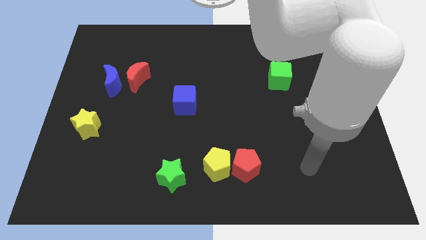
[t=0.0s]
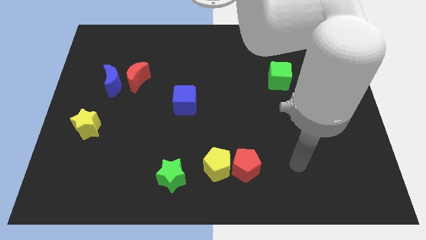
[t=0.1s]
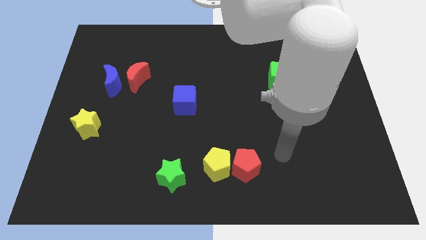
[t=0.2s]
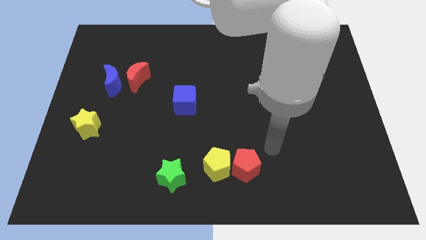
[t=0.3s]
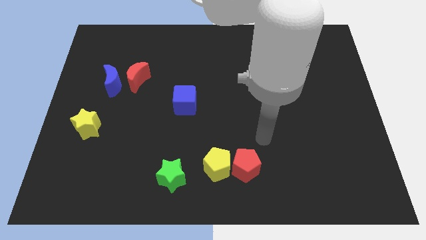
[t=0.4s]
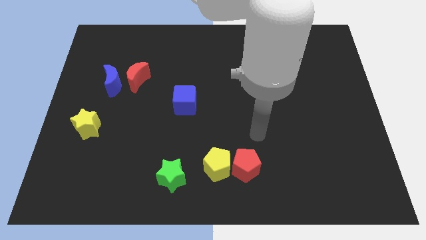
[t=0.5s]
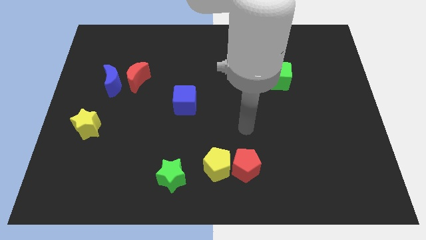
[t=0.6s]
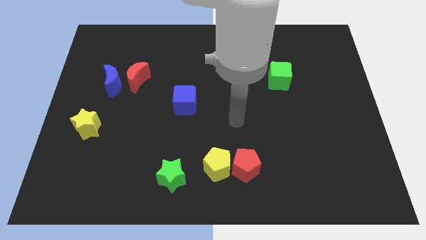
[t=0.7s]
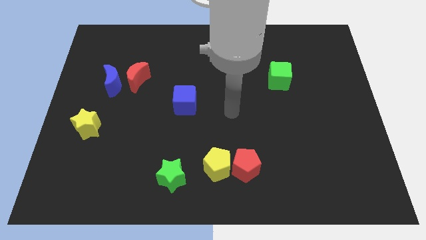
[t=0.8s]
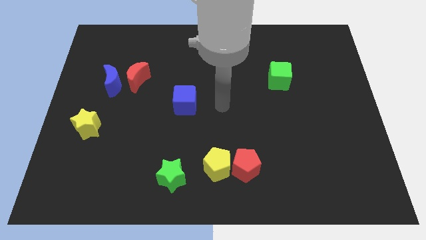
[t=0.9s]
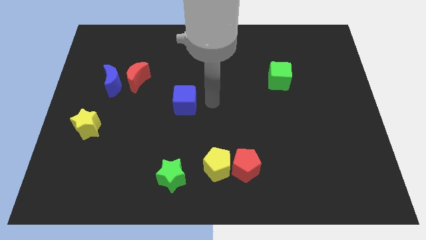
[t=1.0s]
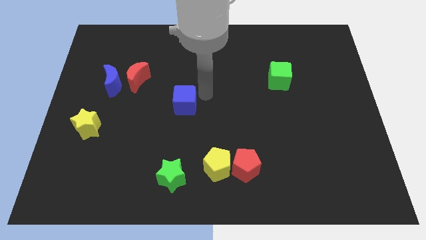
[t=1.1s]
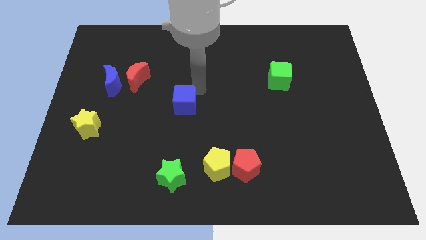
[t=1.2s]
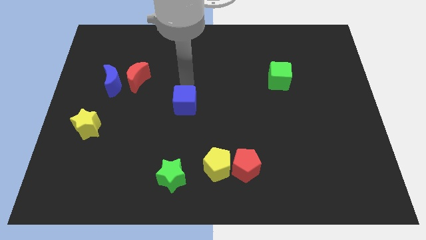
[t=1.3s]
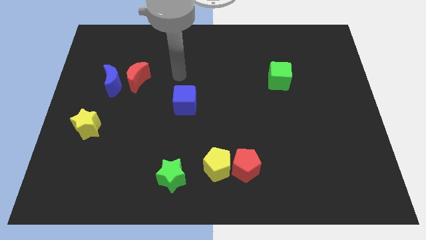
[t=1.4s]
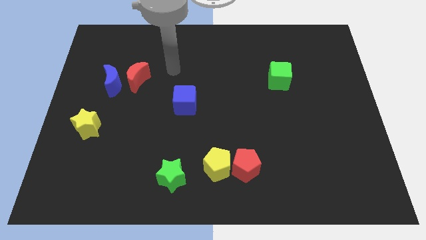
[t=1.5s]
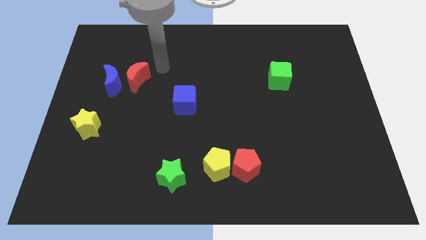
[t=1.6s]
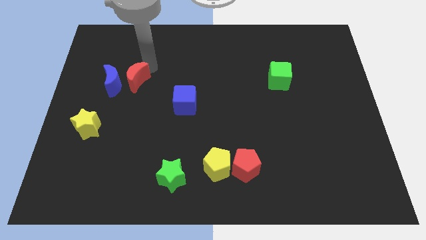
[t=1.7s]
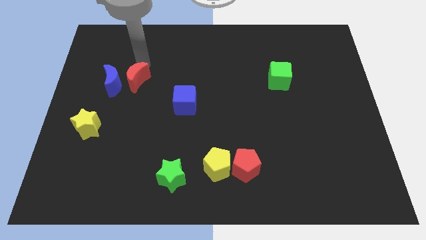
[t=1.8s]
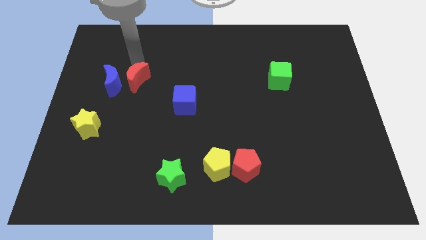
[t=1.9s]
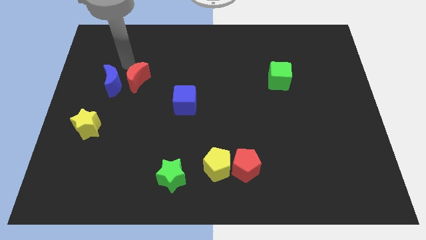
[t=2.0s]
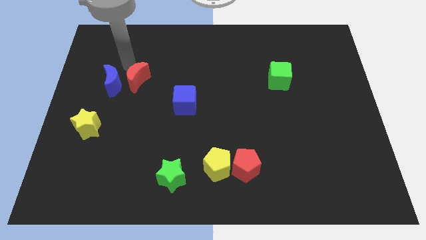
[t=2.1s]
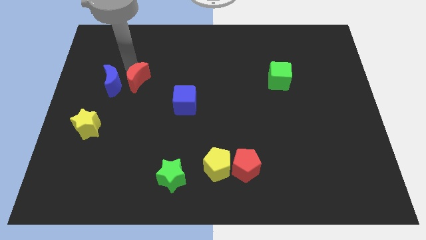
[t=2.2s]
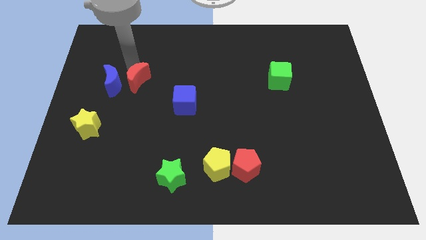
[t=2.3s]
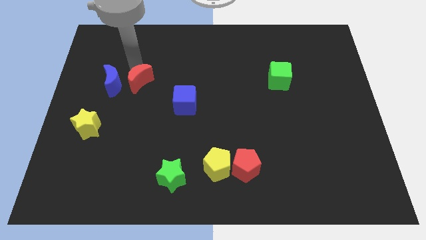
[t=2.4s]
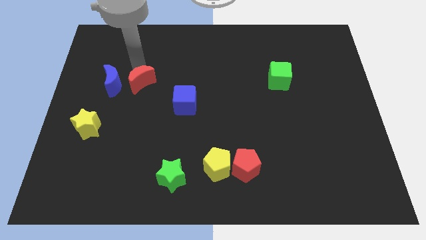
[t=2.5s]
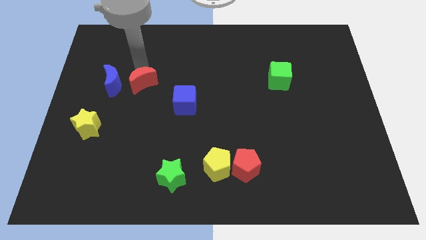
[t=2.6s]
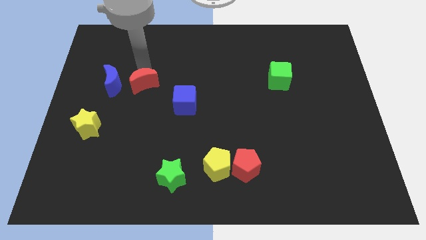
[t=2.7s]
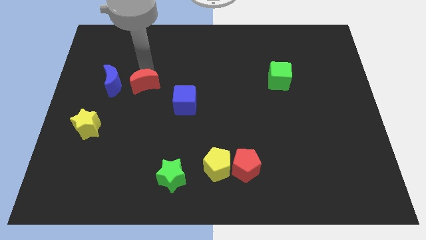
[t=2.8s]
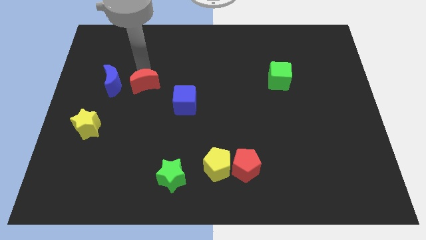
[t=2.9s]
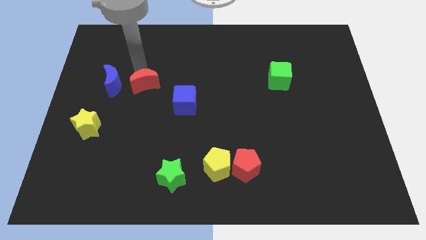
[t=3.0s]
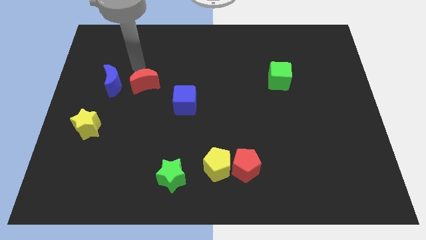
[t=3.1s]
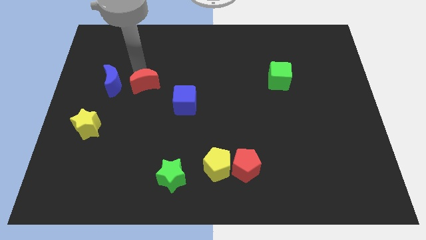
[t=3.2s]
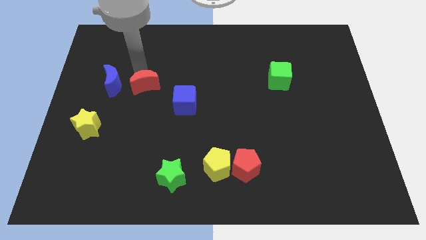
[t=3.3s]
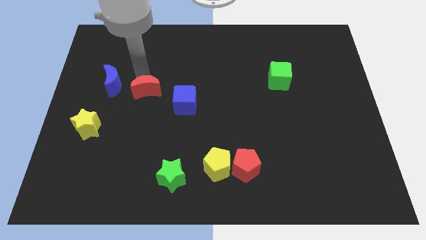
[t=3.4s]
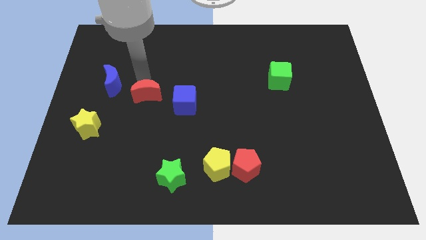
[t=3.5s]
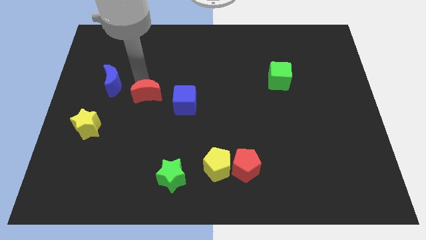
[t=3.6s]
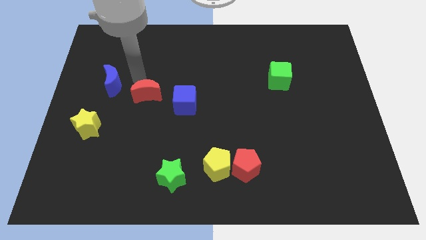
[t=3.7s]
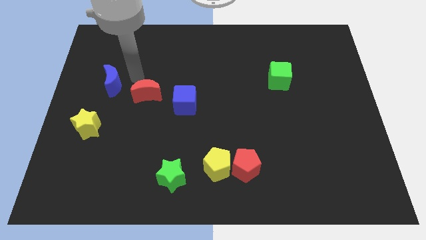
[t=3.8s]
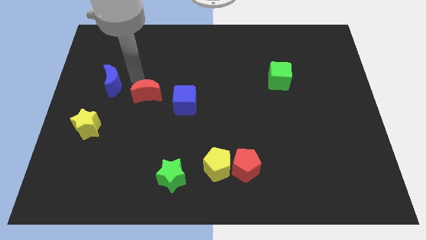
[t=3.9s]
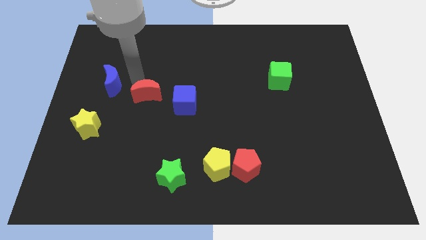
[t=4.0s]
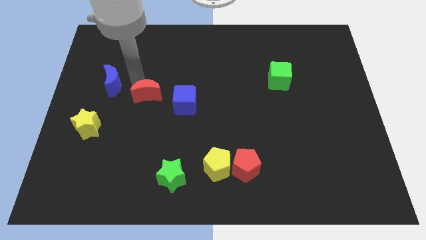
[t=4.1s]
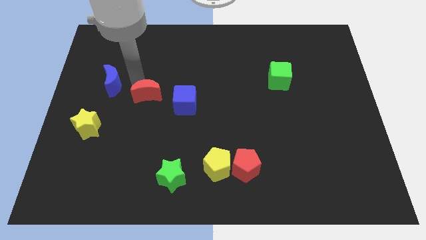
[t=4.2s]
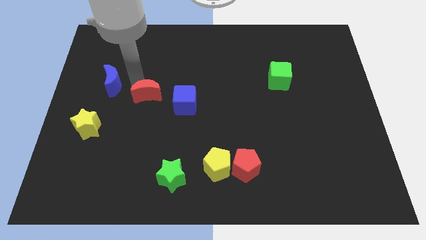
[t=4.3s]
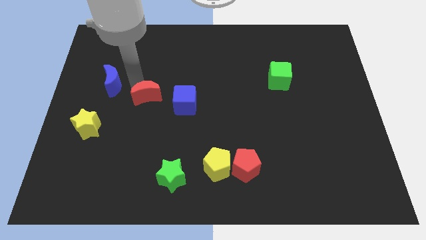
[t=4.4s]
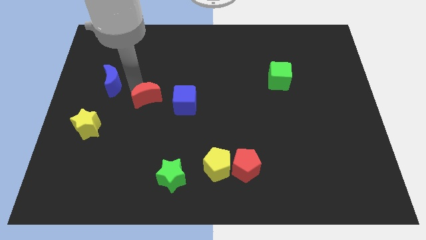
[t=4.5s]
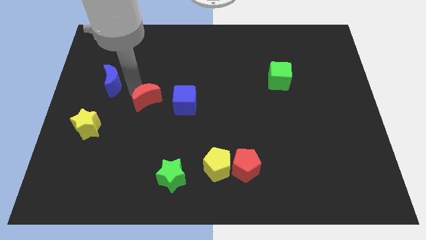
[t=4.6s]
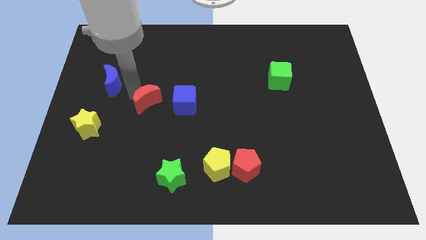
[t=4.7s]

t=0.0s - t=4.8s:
move the red moon a bit down and then to the right

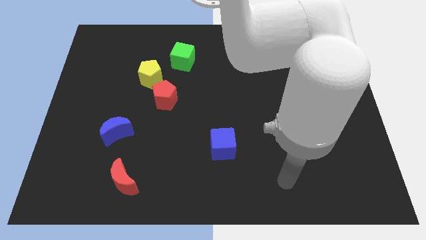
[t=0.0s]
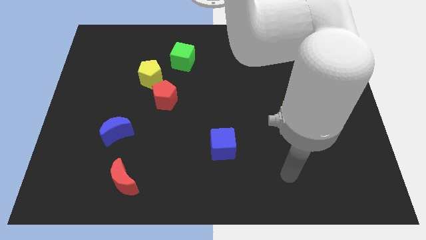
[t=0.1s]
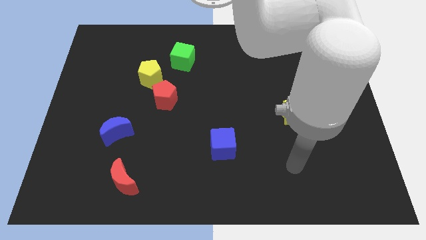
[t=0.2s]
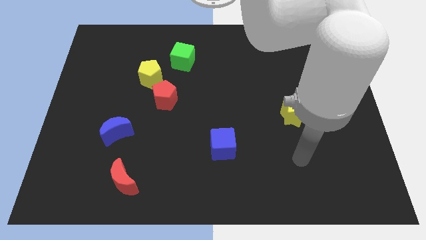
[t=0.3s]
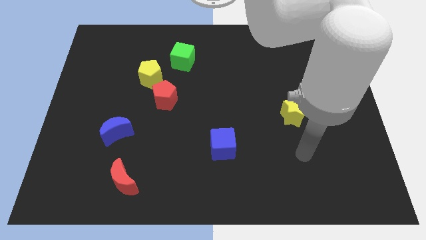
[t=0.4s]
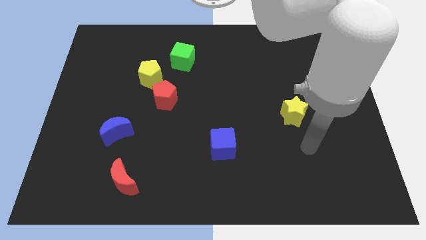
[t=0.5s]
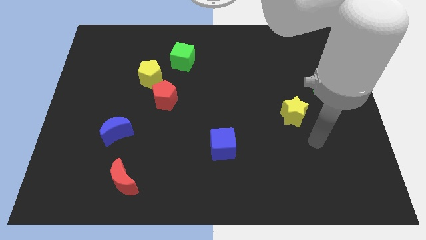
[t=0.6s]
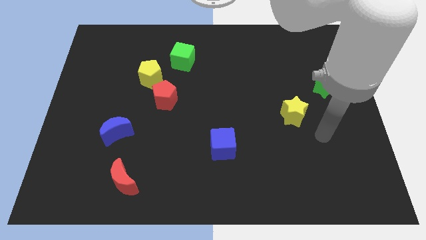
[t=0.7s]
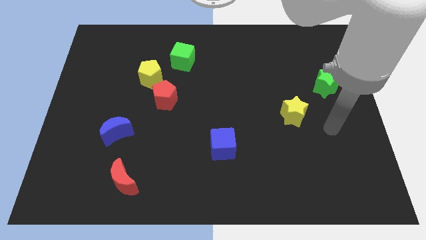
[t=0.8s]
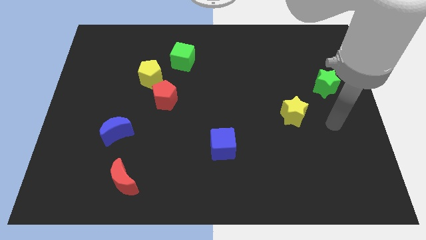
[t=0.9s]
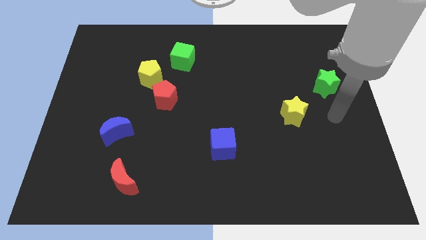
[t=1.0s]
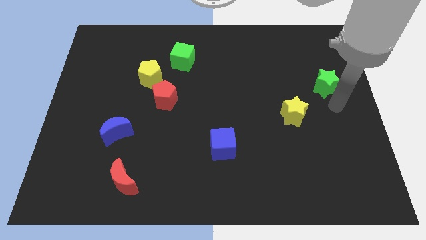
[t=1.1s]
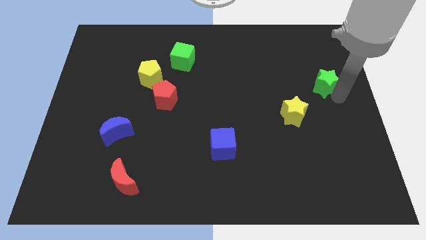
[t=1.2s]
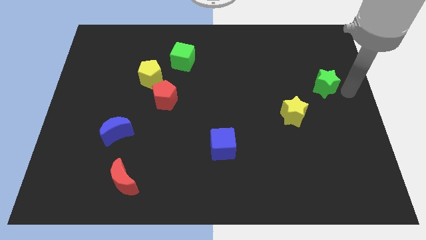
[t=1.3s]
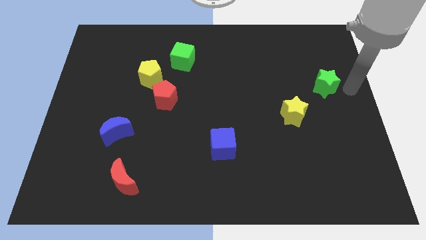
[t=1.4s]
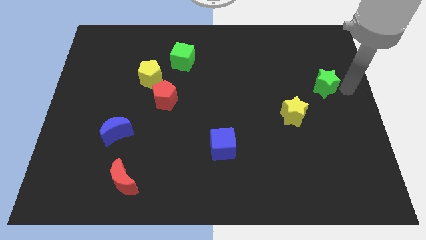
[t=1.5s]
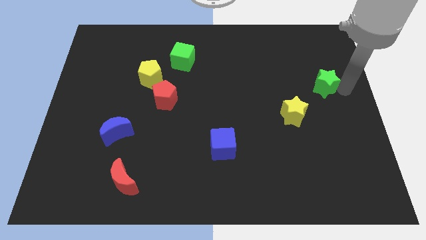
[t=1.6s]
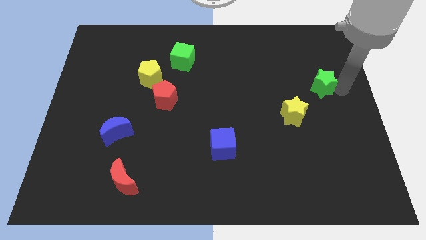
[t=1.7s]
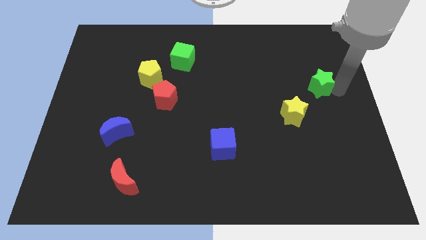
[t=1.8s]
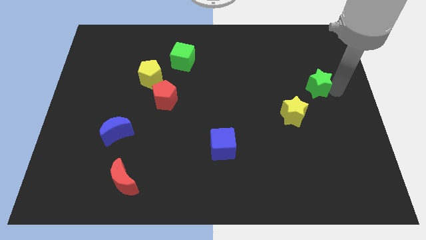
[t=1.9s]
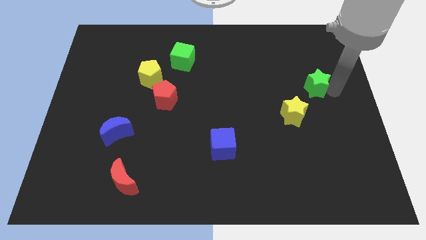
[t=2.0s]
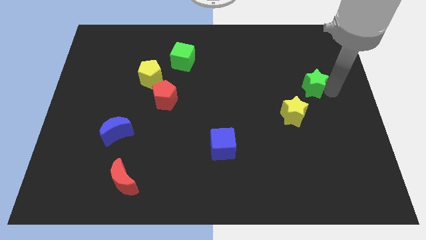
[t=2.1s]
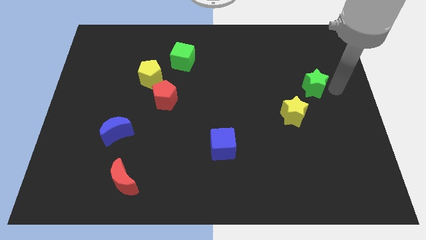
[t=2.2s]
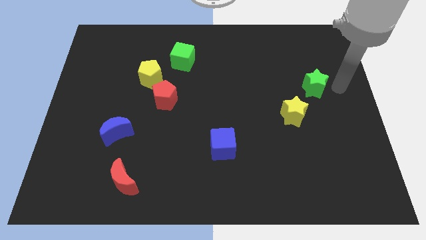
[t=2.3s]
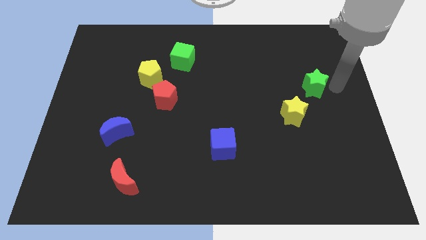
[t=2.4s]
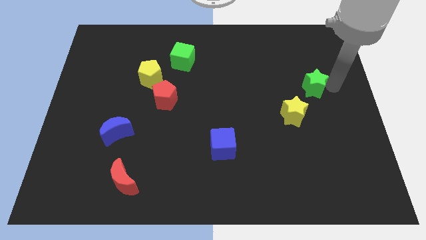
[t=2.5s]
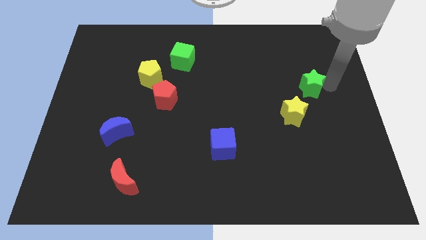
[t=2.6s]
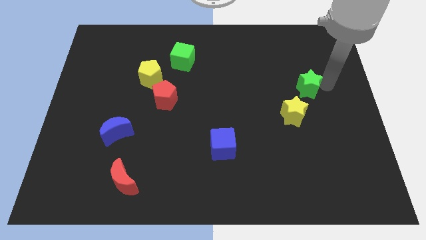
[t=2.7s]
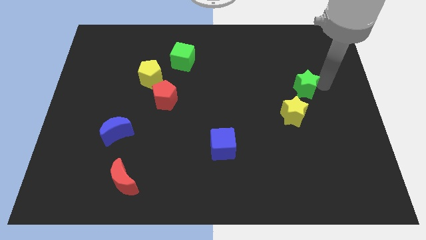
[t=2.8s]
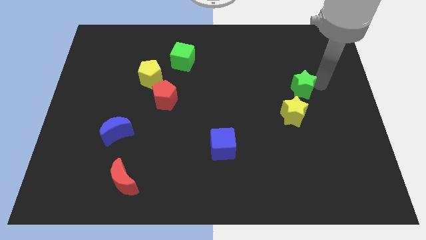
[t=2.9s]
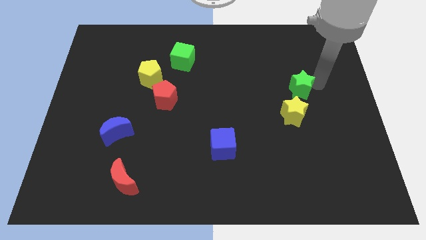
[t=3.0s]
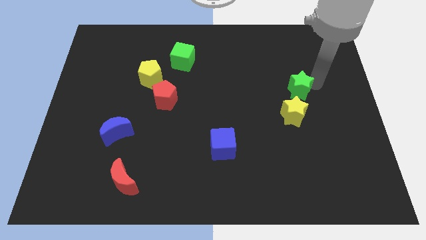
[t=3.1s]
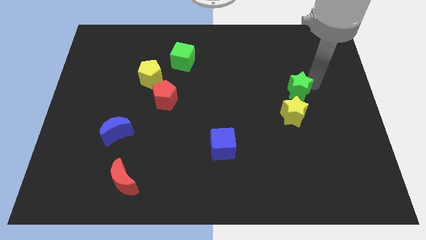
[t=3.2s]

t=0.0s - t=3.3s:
slightly push the green star to the left

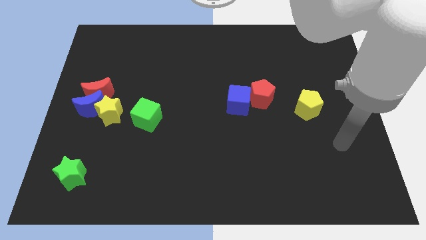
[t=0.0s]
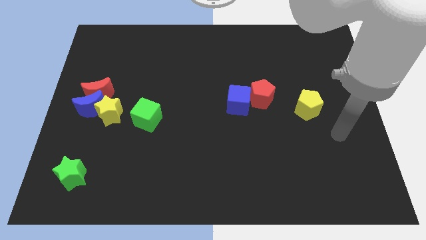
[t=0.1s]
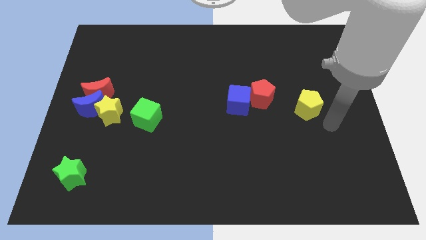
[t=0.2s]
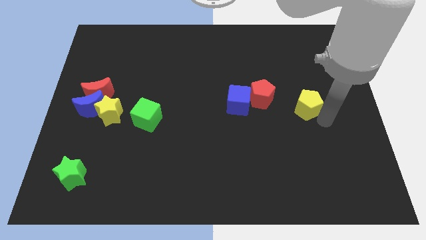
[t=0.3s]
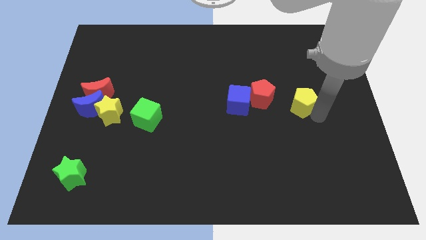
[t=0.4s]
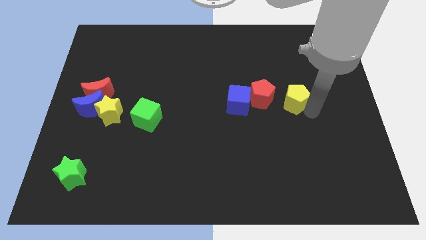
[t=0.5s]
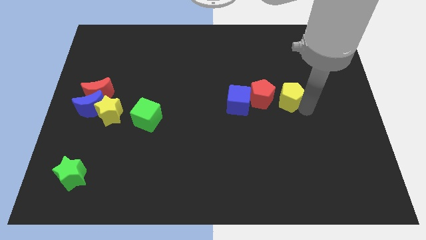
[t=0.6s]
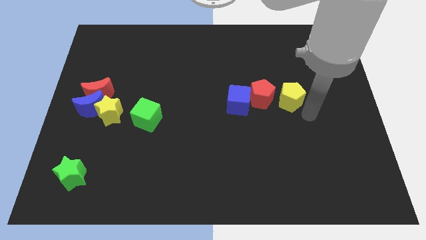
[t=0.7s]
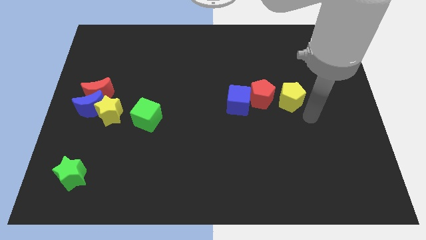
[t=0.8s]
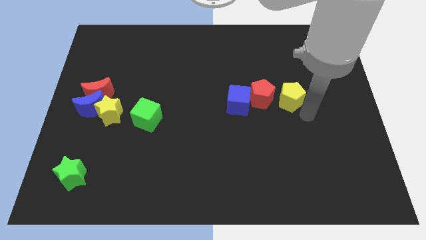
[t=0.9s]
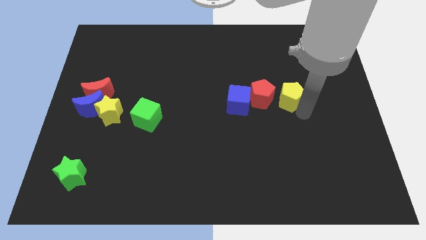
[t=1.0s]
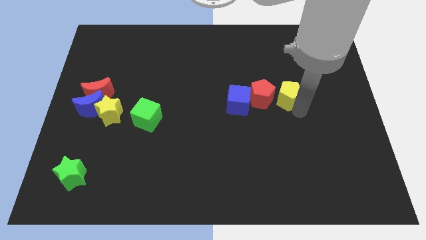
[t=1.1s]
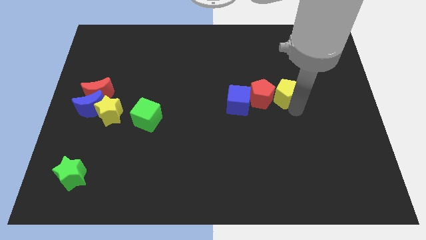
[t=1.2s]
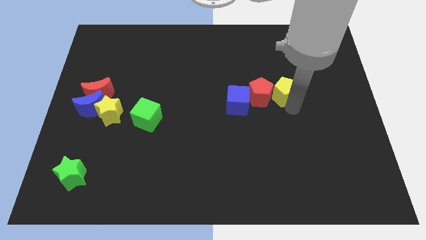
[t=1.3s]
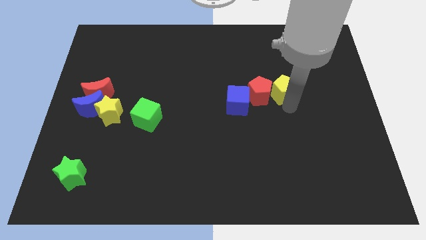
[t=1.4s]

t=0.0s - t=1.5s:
move the yellow pentagon somewhat upwards and left diagonally
